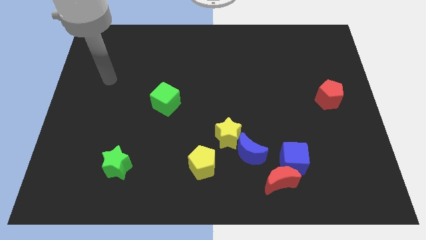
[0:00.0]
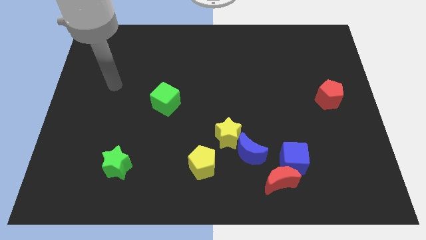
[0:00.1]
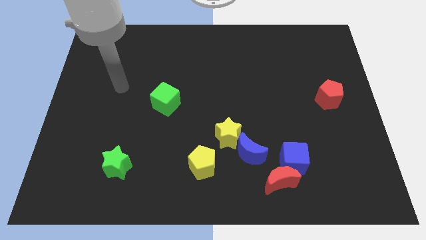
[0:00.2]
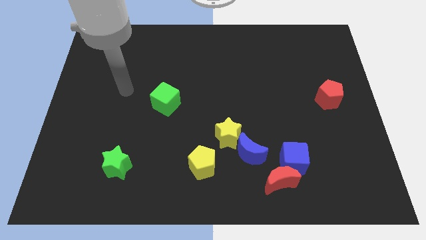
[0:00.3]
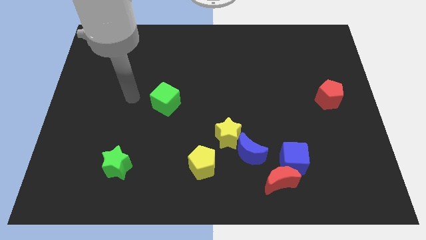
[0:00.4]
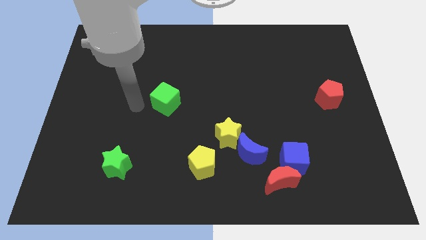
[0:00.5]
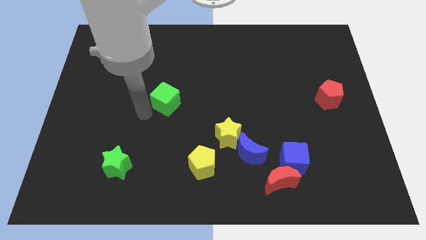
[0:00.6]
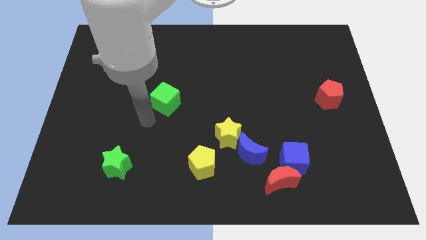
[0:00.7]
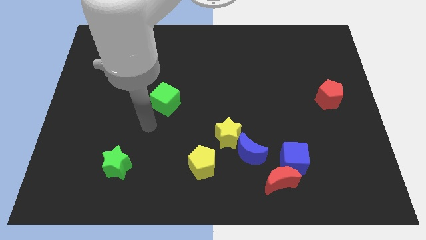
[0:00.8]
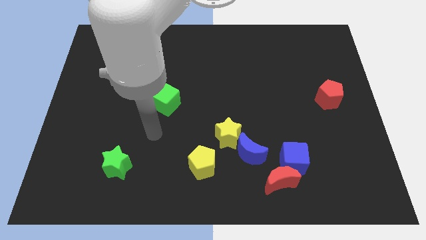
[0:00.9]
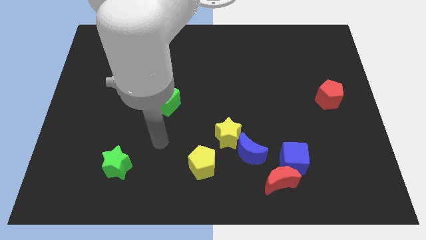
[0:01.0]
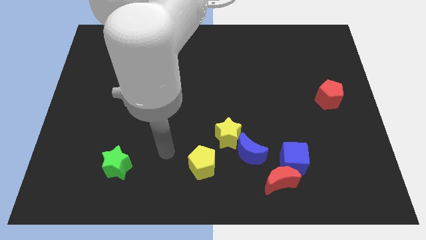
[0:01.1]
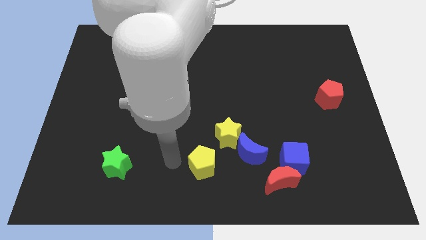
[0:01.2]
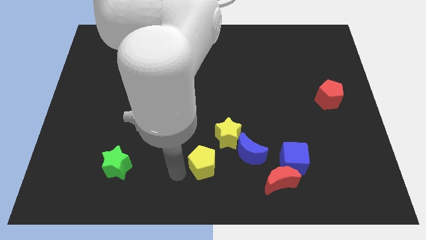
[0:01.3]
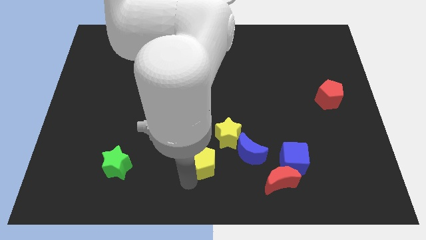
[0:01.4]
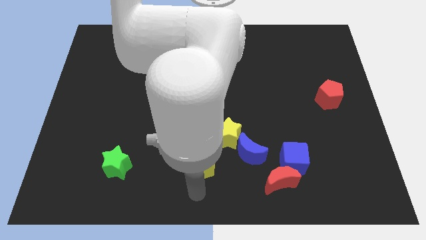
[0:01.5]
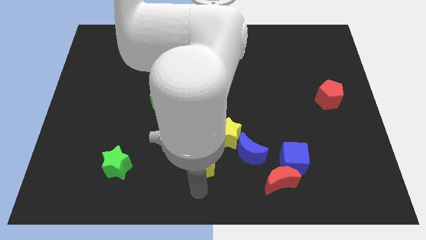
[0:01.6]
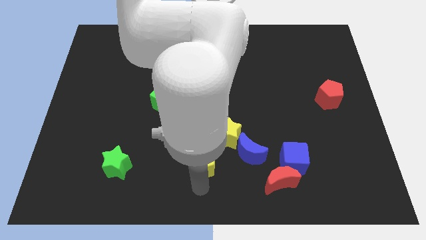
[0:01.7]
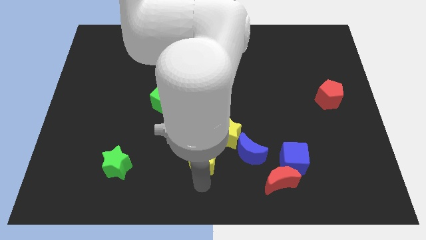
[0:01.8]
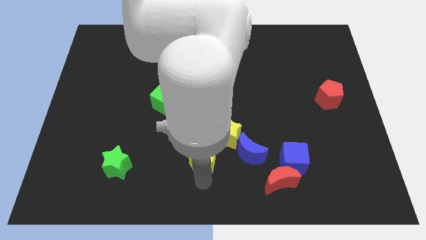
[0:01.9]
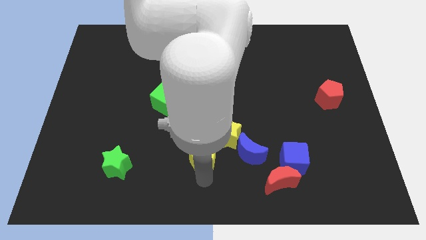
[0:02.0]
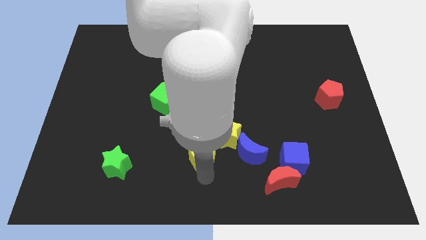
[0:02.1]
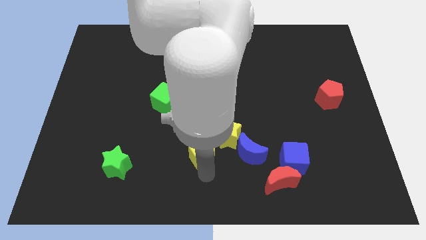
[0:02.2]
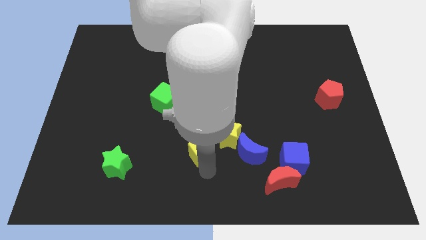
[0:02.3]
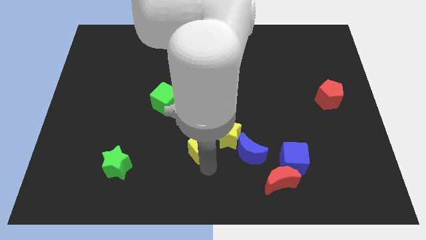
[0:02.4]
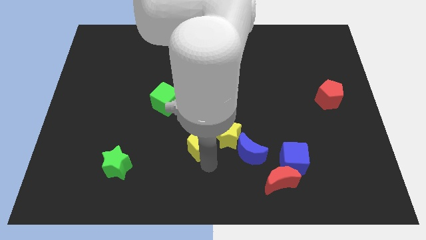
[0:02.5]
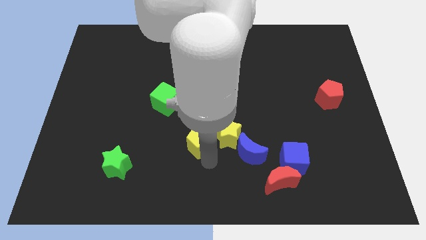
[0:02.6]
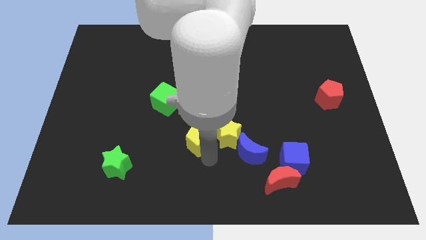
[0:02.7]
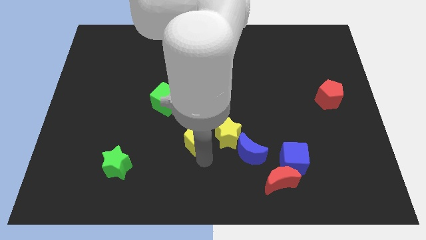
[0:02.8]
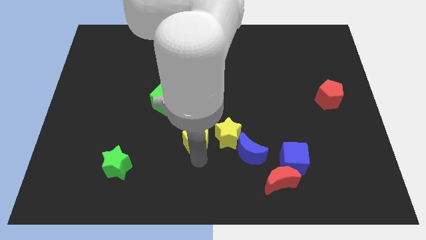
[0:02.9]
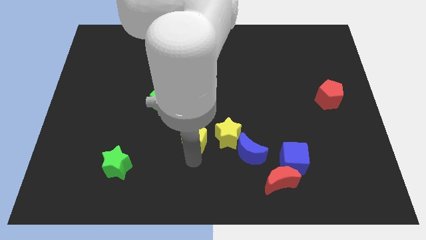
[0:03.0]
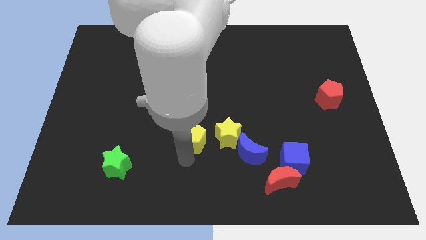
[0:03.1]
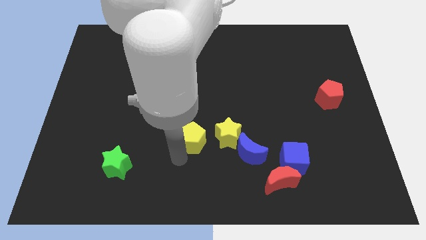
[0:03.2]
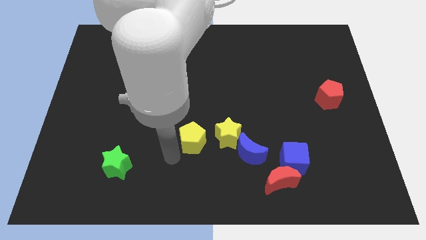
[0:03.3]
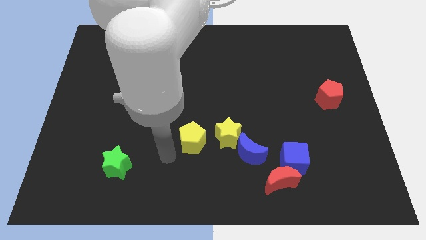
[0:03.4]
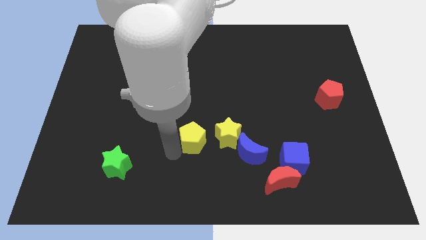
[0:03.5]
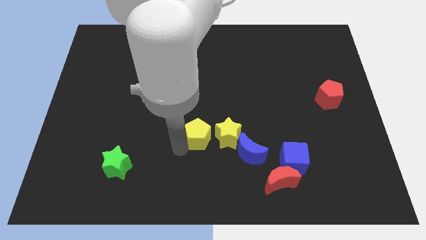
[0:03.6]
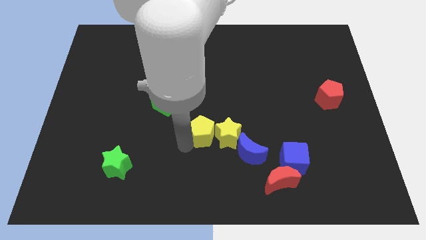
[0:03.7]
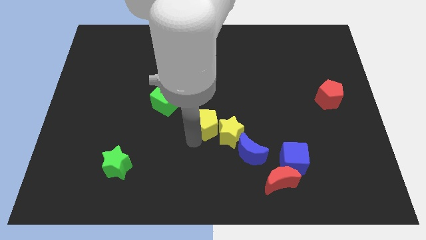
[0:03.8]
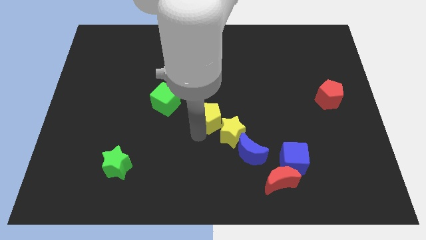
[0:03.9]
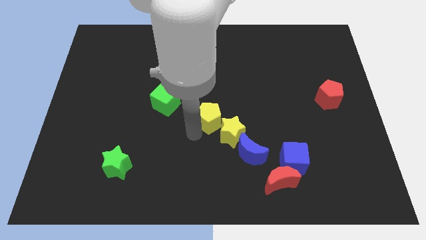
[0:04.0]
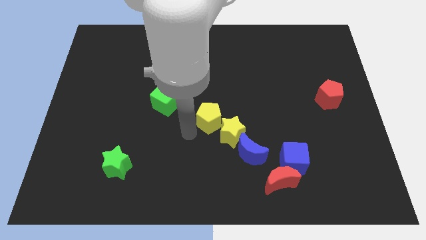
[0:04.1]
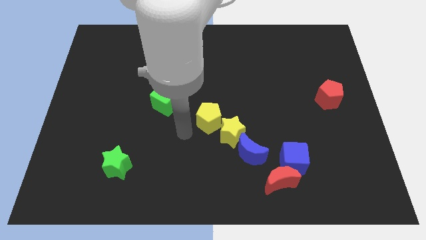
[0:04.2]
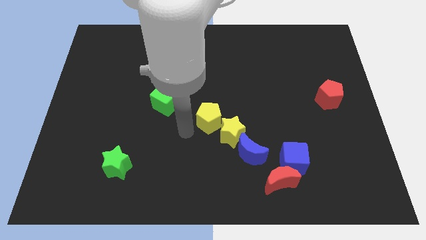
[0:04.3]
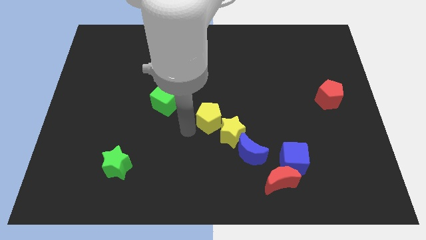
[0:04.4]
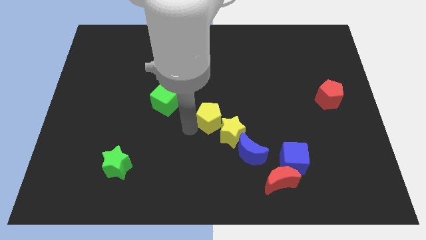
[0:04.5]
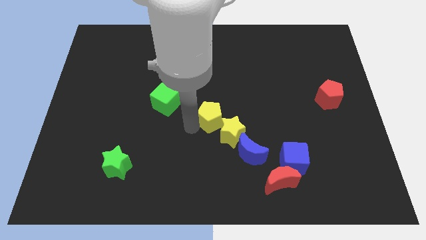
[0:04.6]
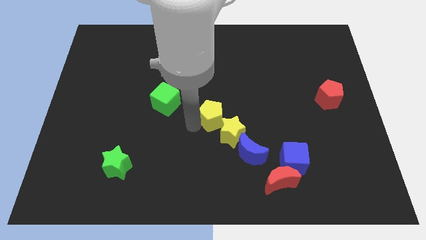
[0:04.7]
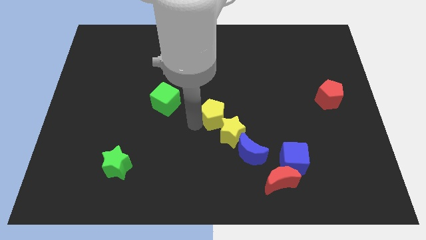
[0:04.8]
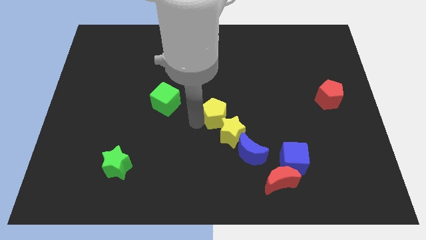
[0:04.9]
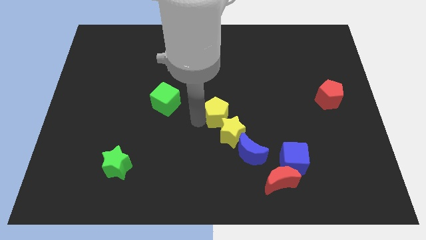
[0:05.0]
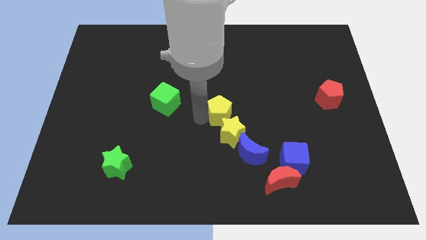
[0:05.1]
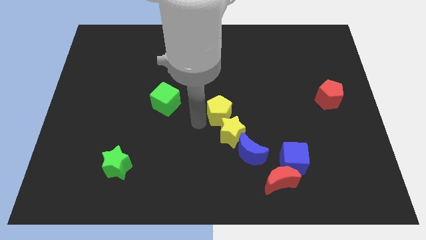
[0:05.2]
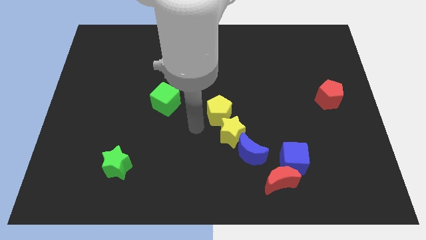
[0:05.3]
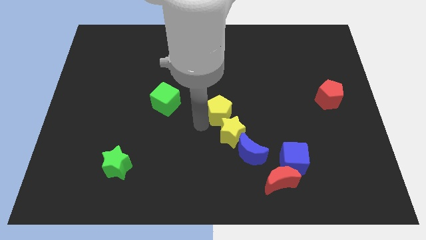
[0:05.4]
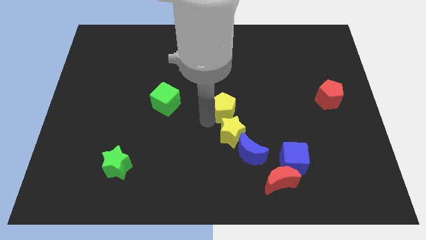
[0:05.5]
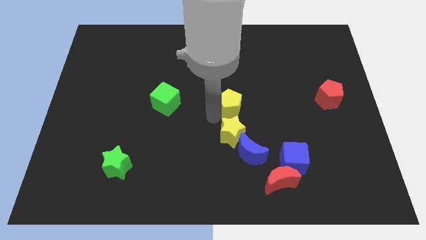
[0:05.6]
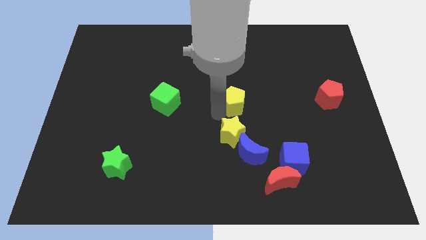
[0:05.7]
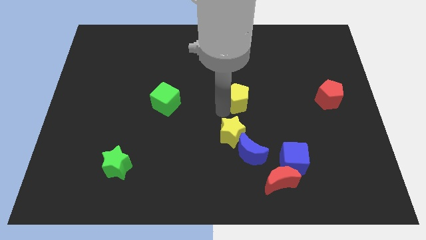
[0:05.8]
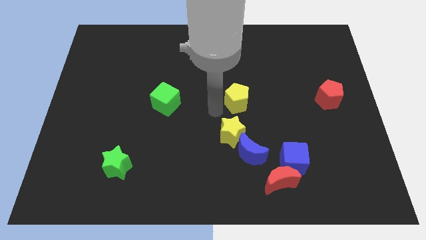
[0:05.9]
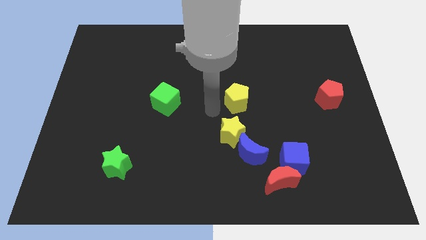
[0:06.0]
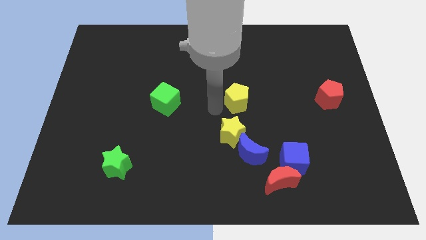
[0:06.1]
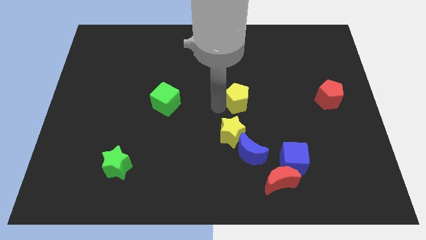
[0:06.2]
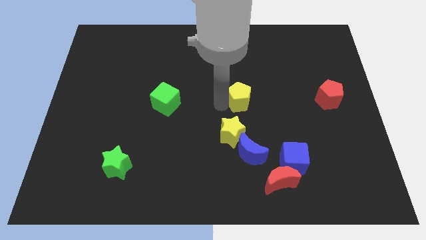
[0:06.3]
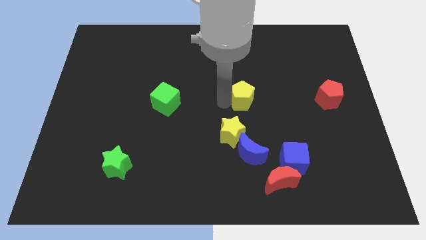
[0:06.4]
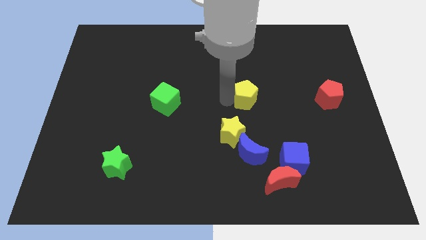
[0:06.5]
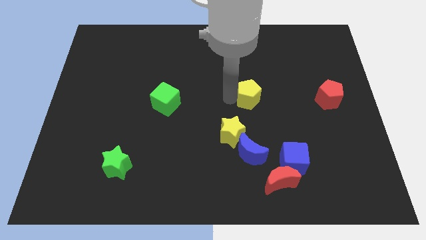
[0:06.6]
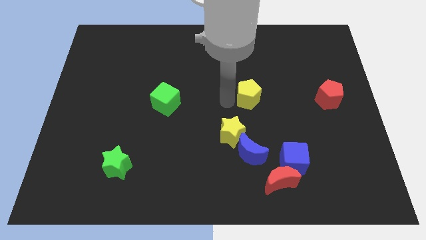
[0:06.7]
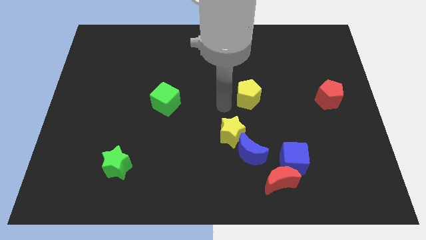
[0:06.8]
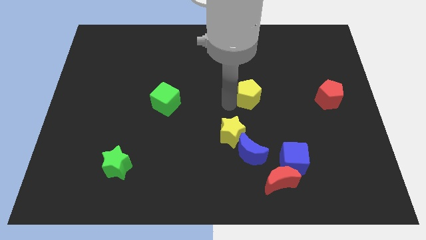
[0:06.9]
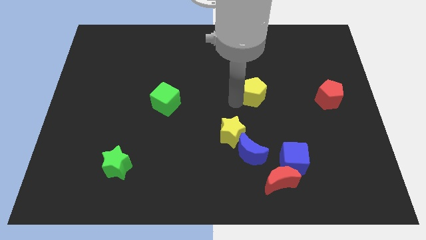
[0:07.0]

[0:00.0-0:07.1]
slide the yellow pentagon up and to the right

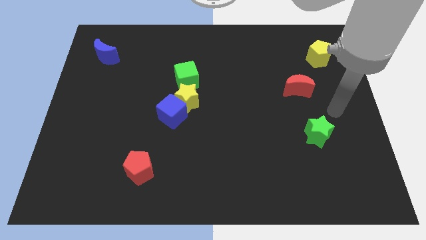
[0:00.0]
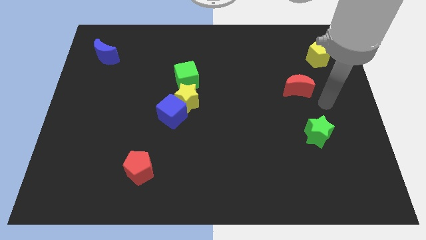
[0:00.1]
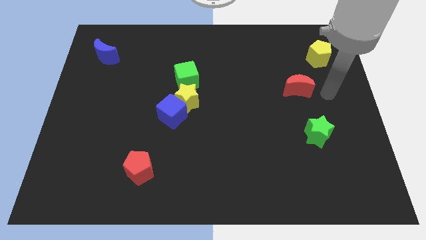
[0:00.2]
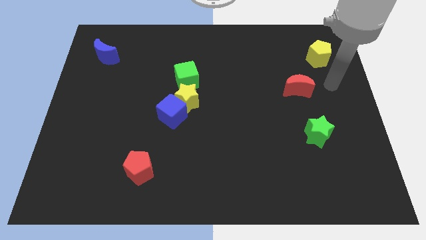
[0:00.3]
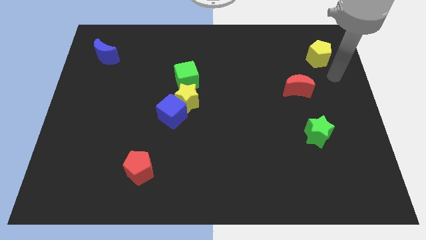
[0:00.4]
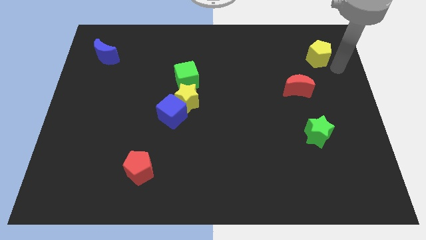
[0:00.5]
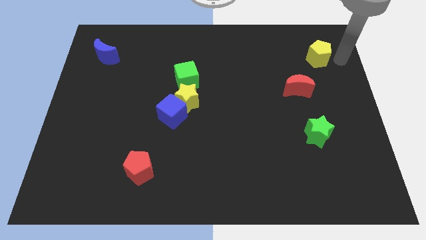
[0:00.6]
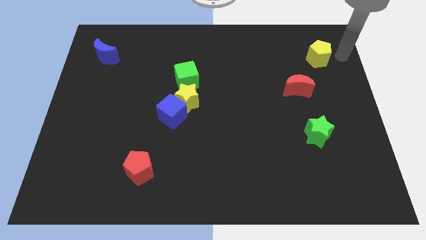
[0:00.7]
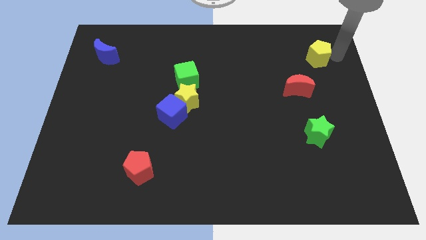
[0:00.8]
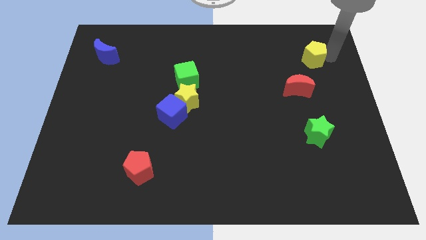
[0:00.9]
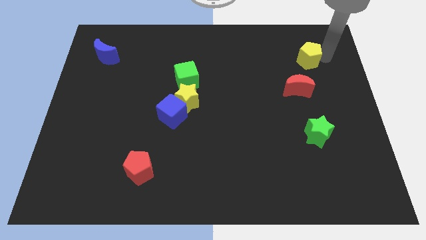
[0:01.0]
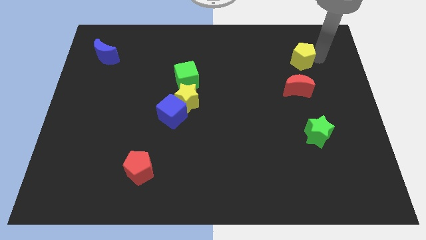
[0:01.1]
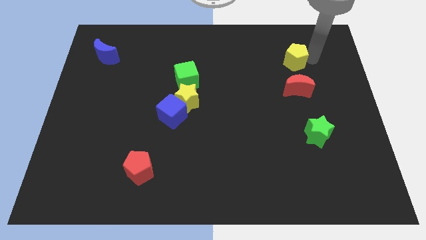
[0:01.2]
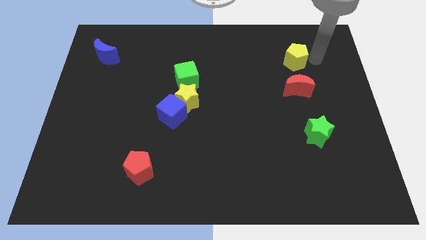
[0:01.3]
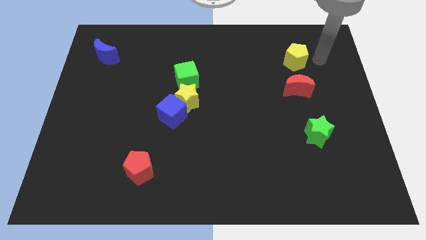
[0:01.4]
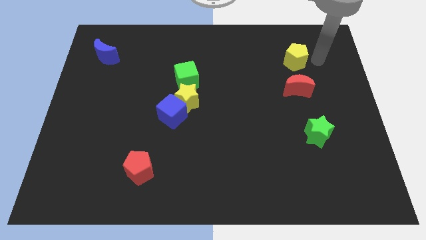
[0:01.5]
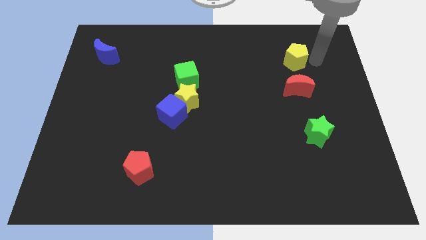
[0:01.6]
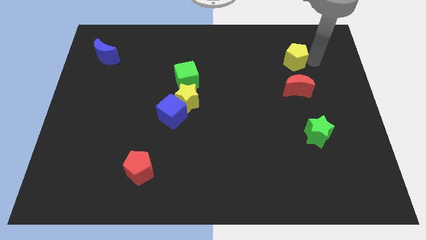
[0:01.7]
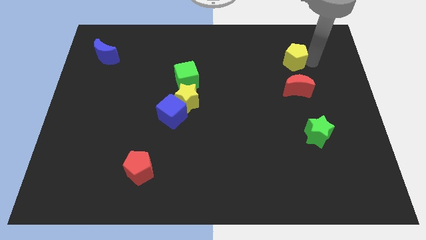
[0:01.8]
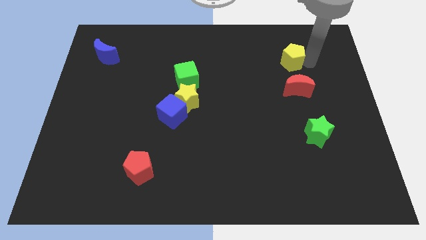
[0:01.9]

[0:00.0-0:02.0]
slightly push the yellow pentagon to the left
